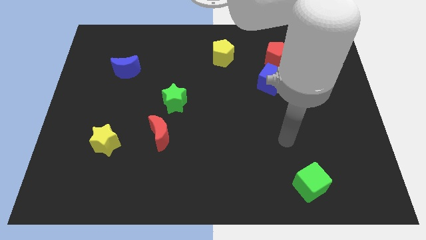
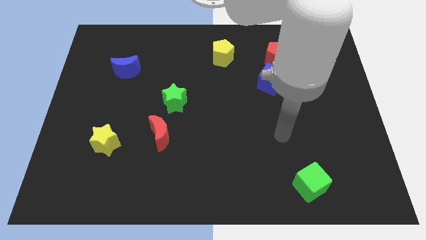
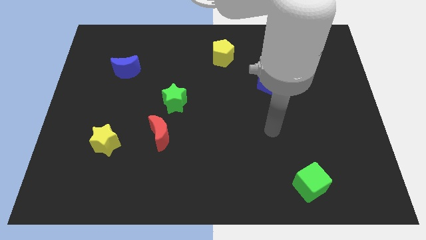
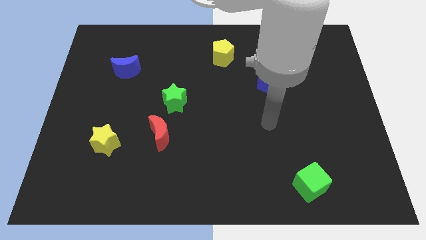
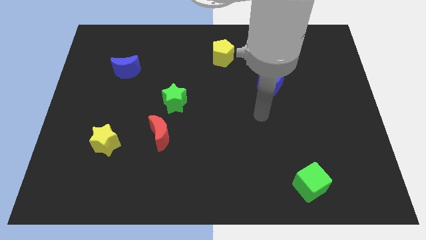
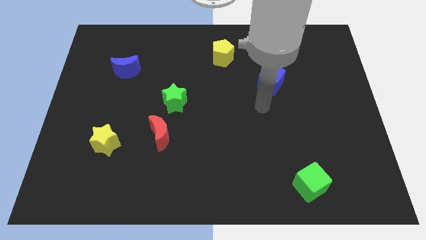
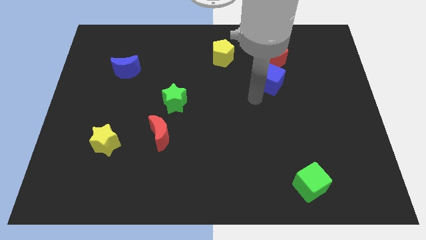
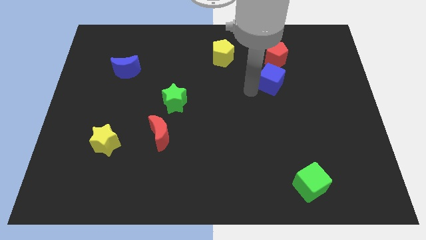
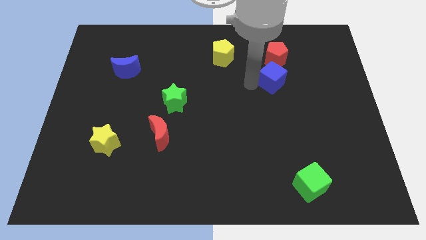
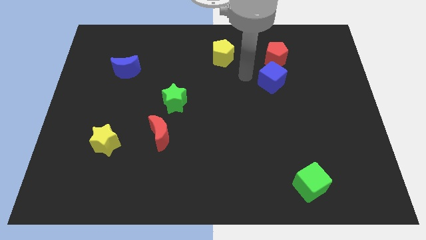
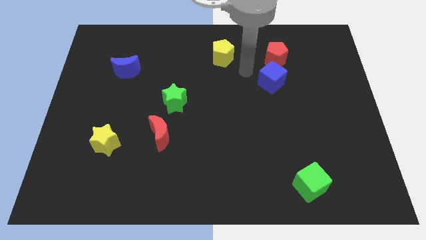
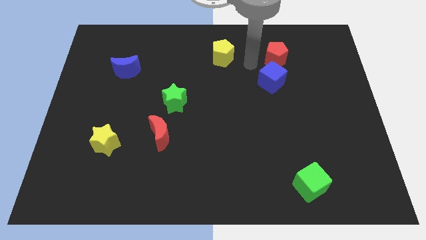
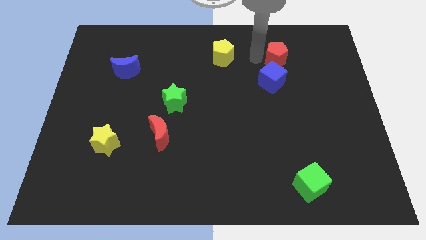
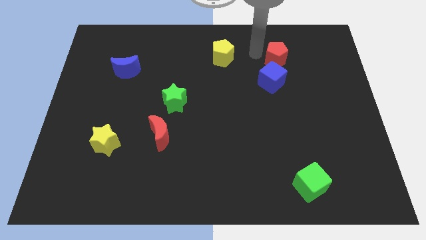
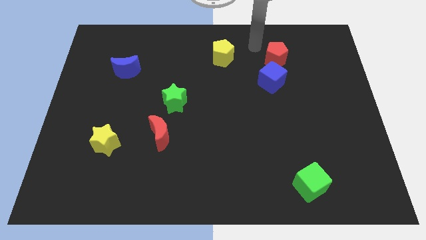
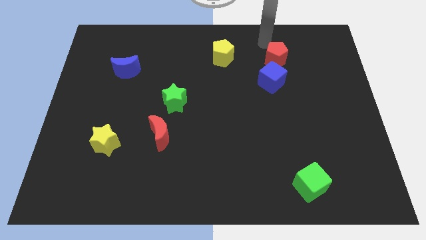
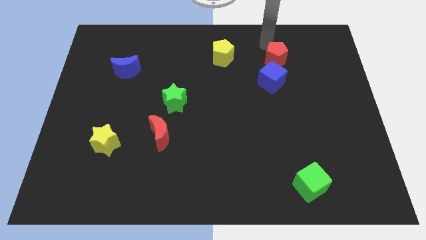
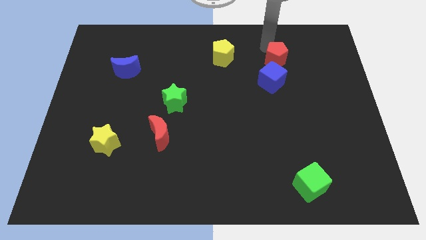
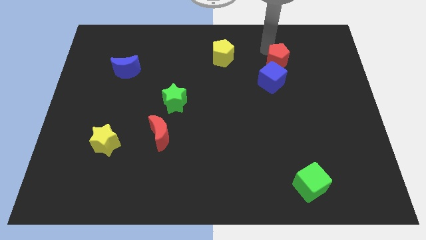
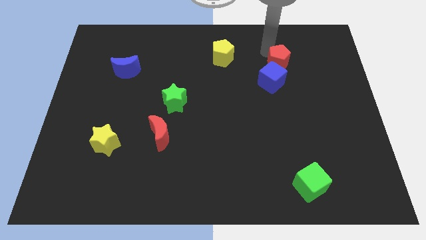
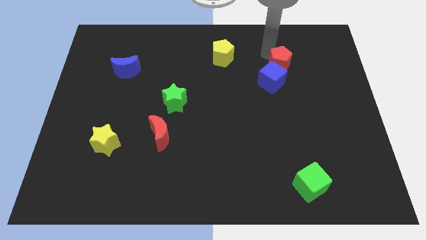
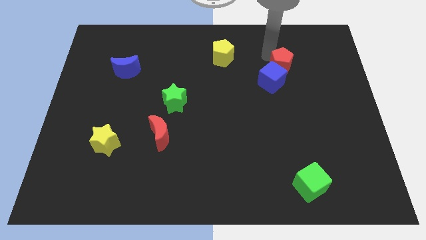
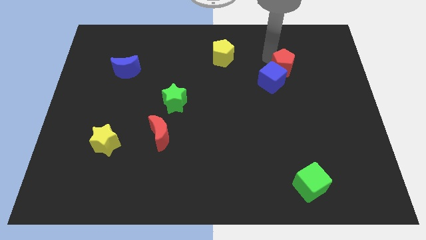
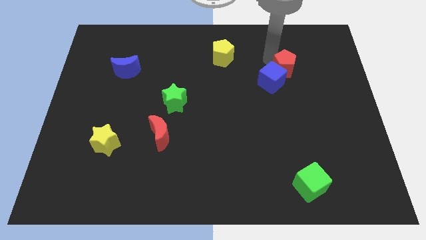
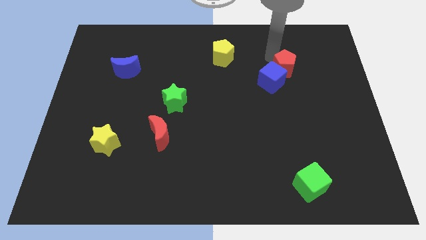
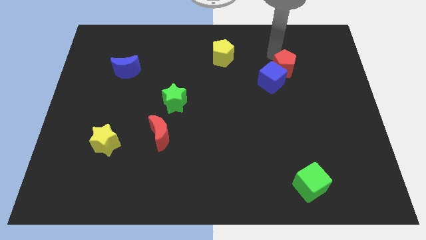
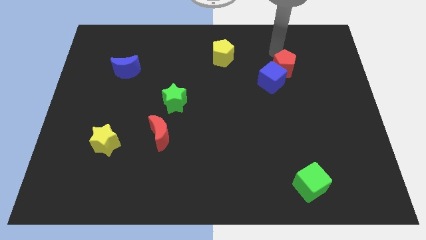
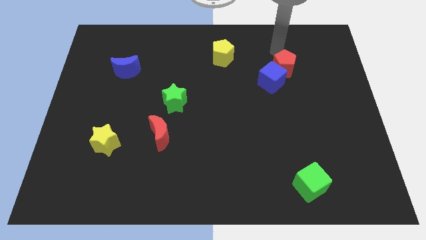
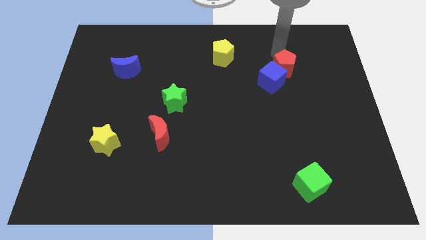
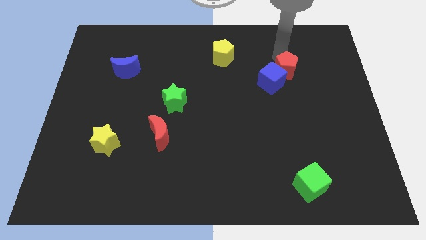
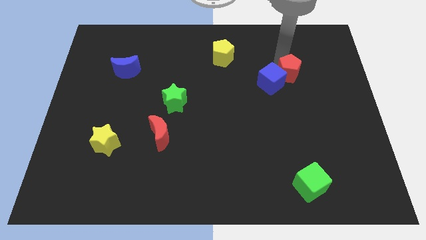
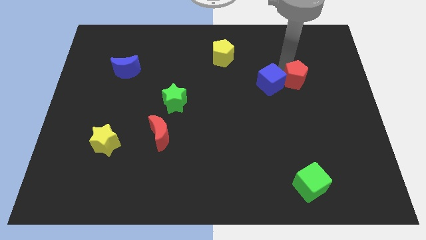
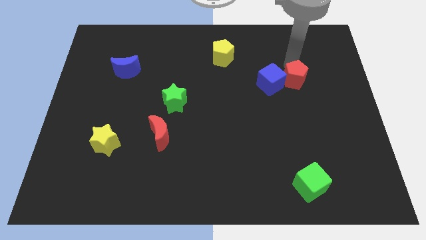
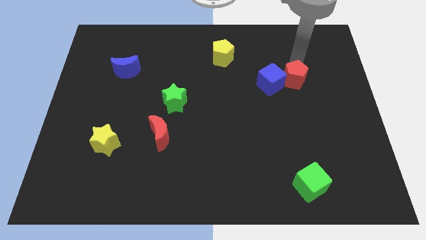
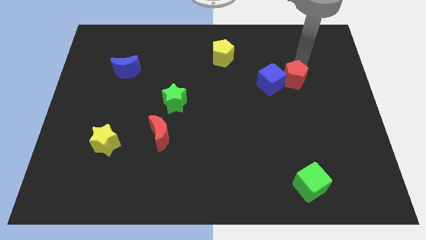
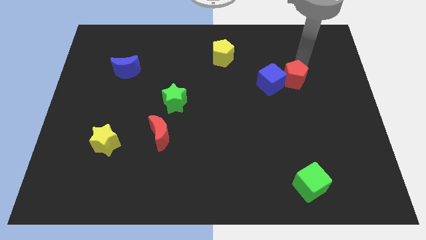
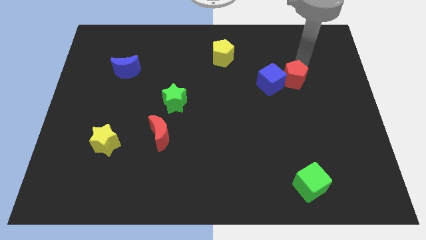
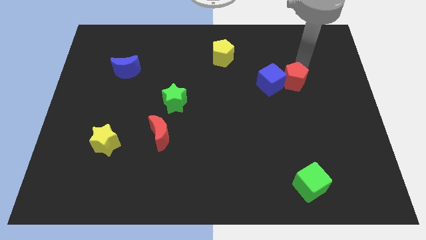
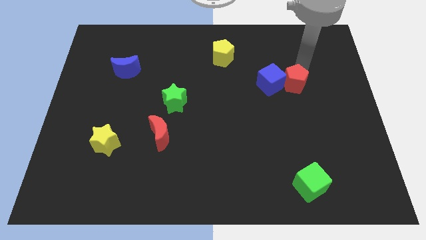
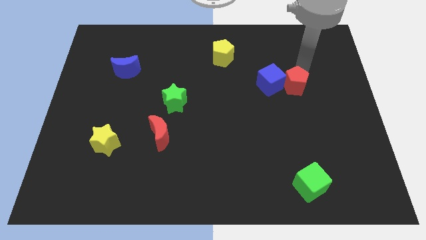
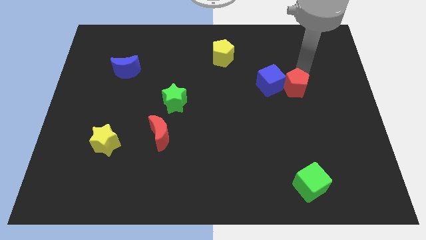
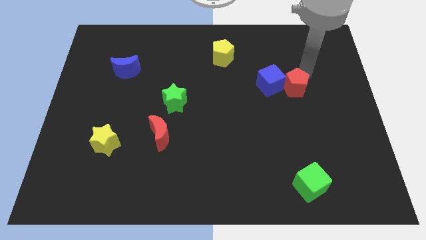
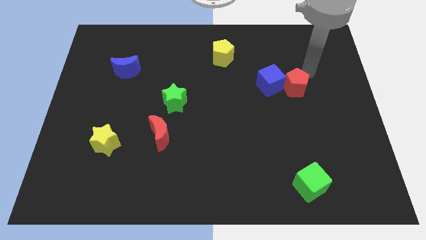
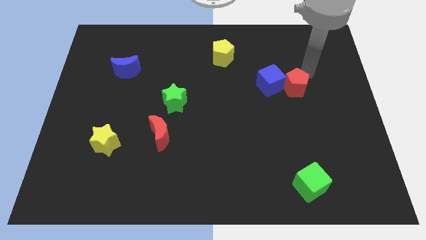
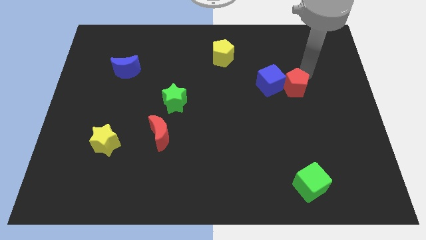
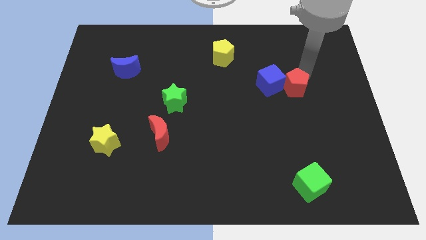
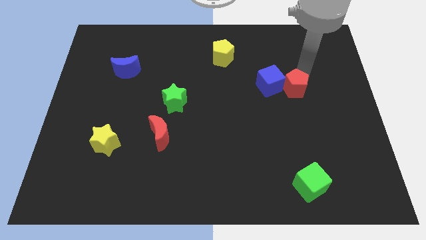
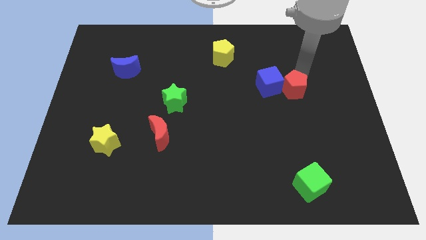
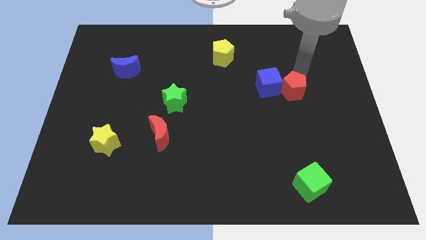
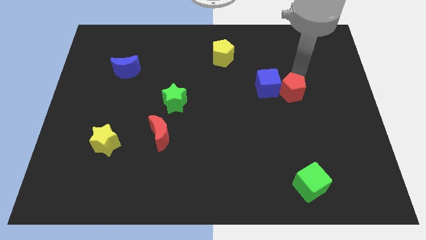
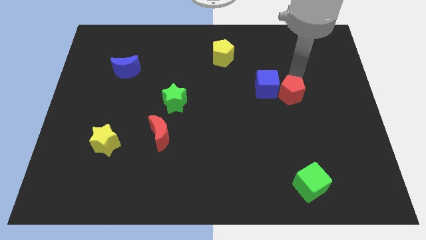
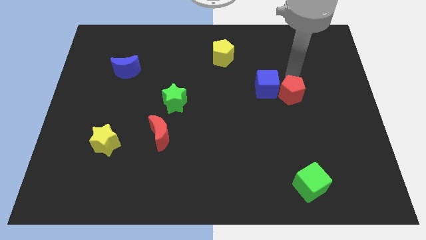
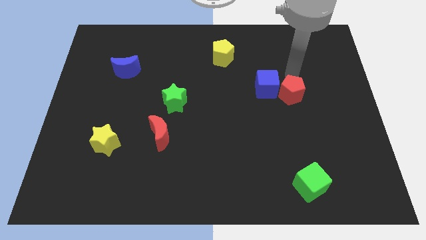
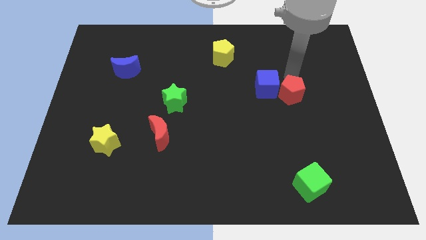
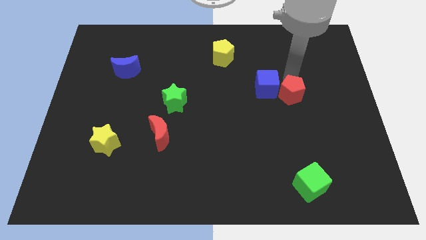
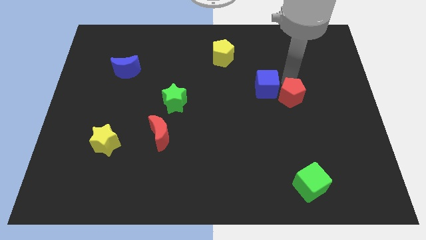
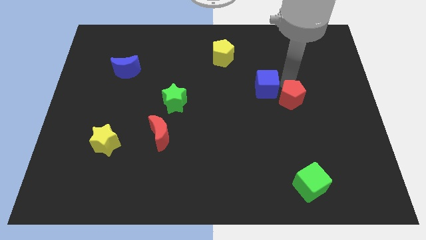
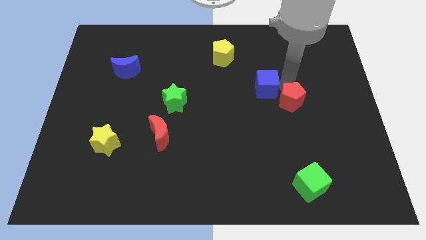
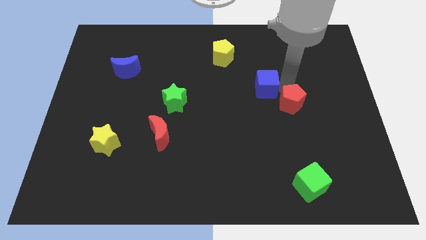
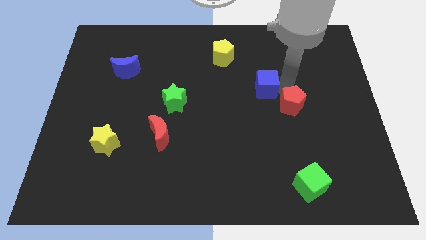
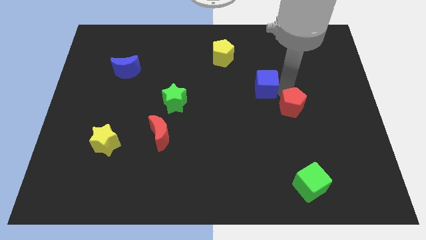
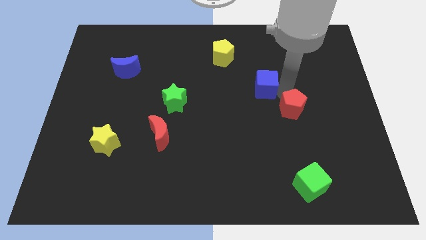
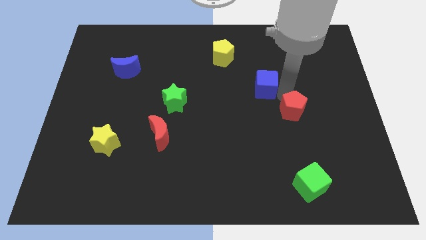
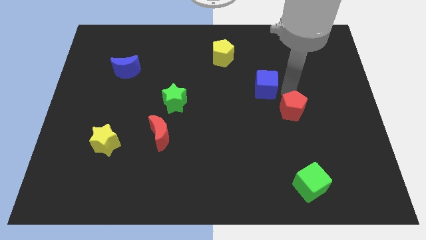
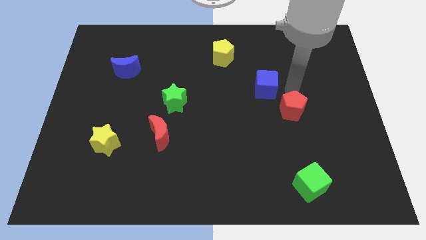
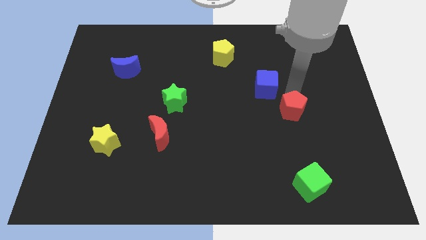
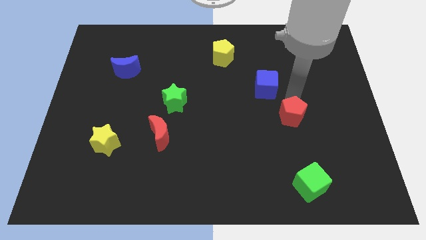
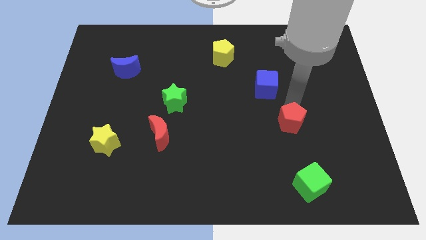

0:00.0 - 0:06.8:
push the red pentagon down

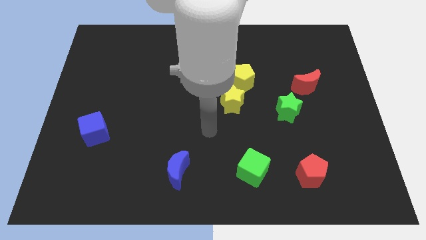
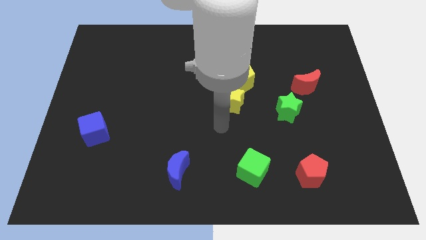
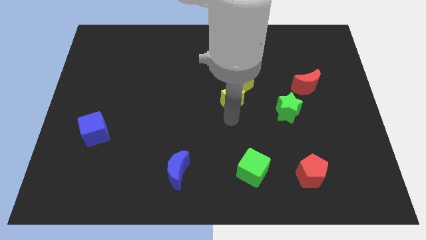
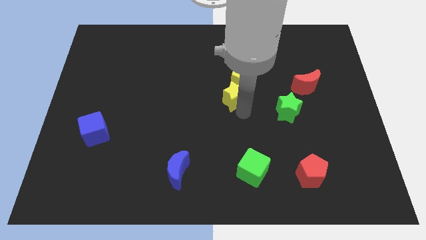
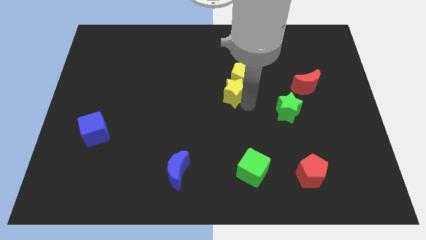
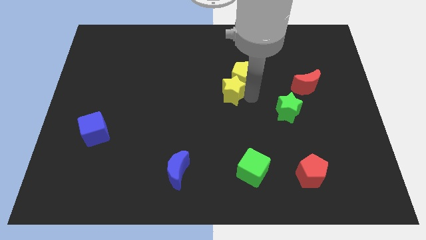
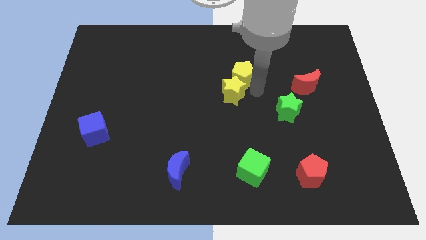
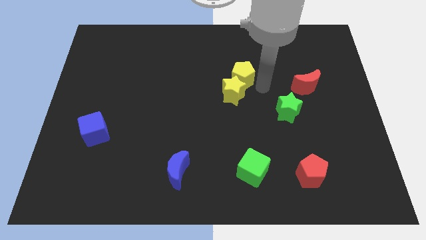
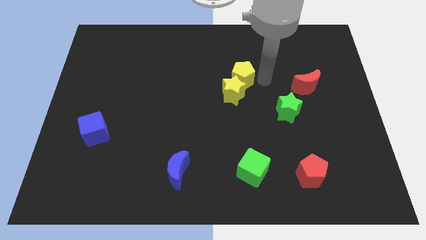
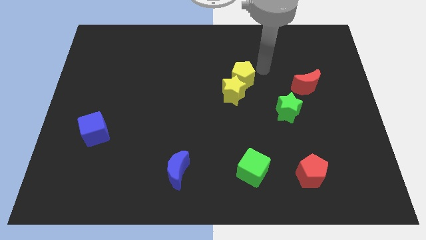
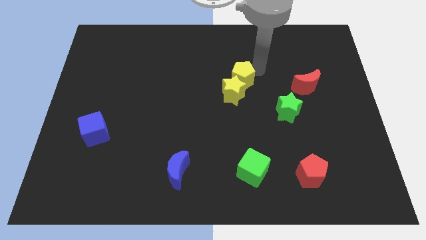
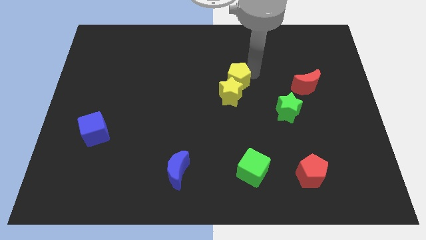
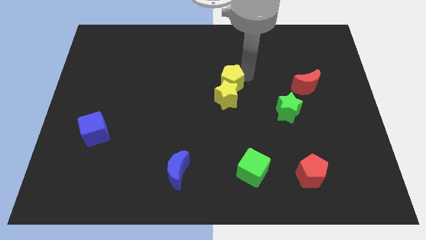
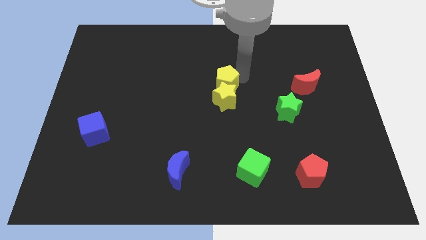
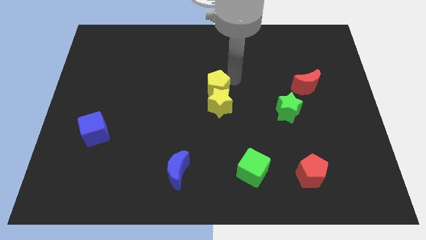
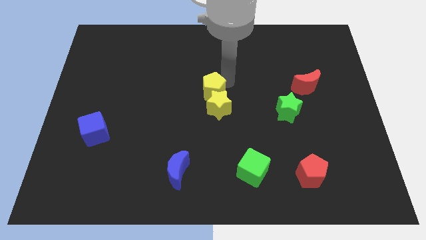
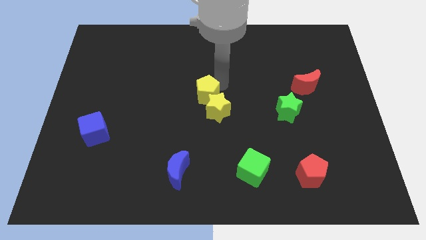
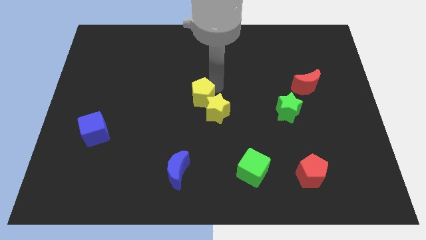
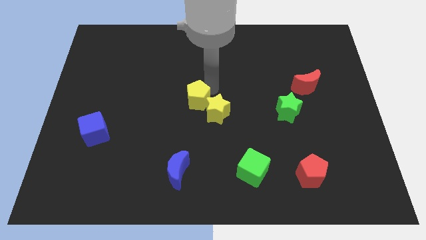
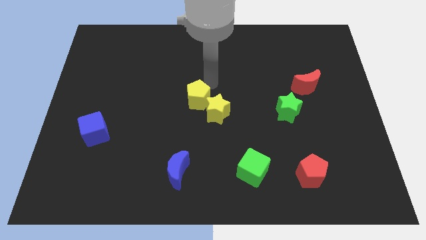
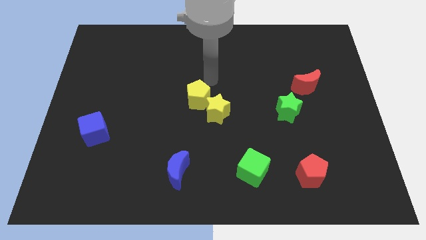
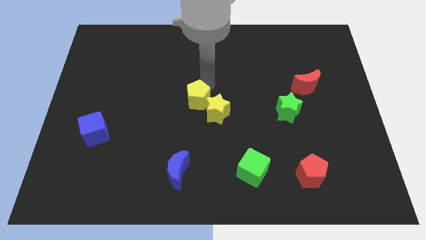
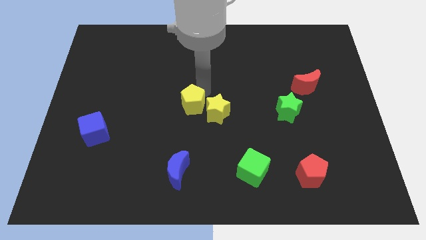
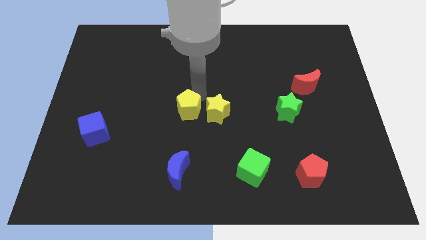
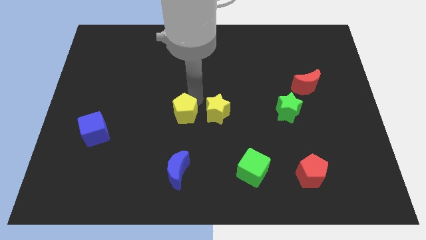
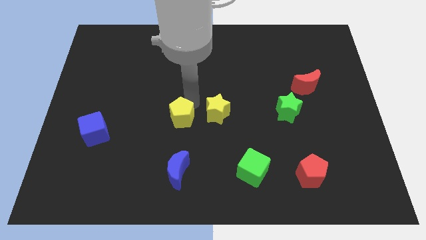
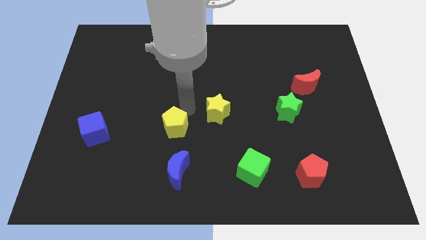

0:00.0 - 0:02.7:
push the yellow pentagon down and to the left diagonally
